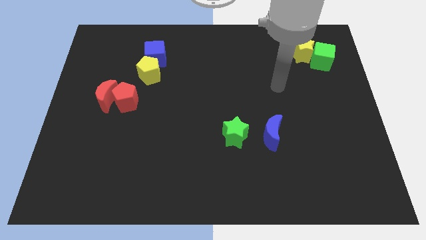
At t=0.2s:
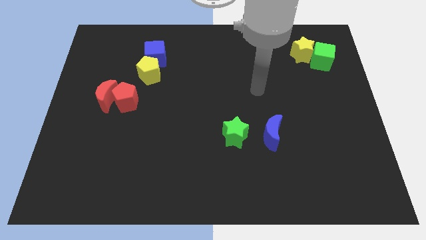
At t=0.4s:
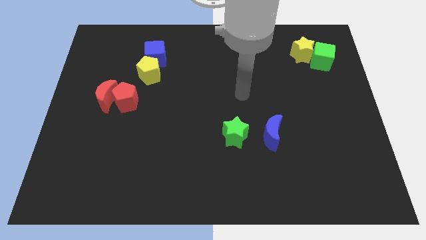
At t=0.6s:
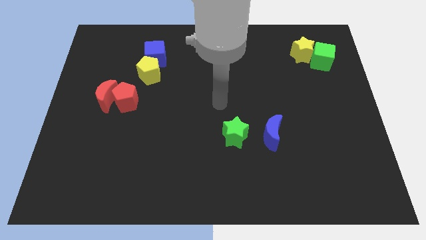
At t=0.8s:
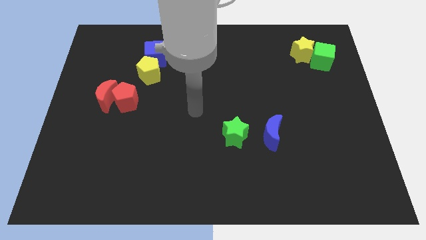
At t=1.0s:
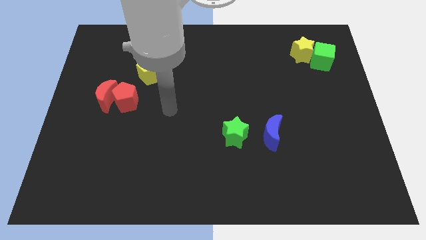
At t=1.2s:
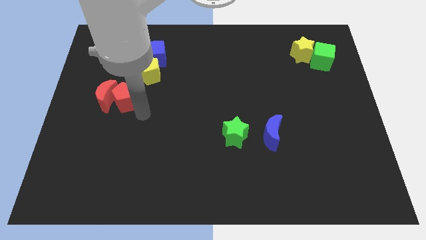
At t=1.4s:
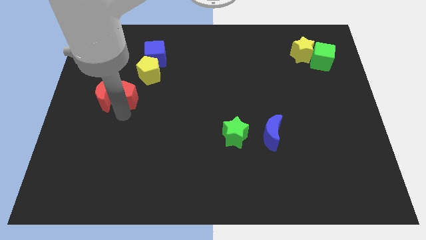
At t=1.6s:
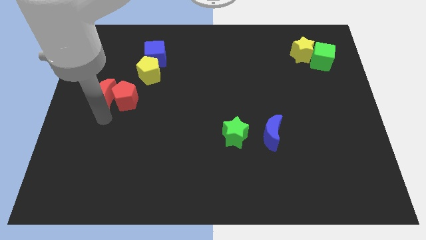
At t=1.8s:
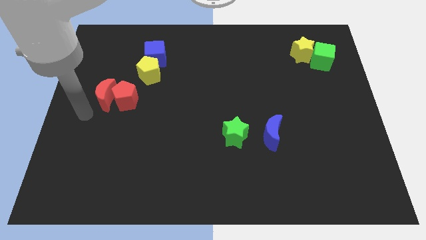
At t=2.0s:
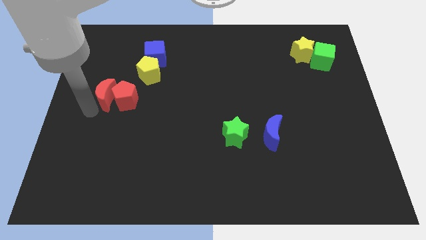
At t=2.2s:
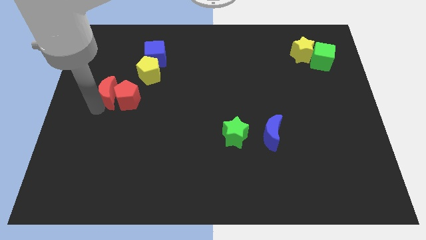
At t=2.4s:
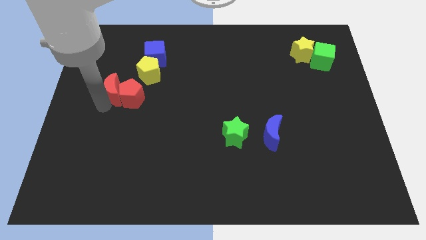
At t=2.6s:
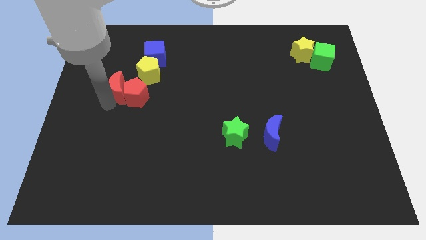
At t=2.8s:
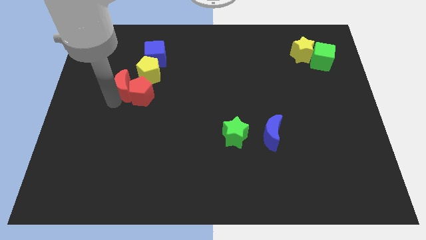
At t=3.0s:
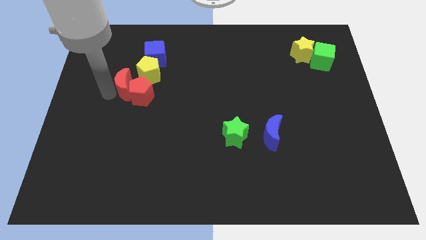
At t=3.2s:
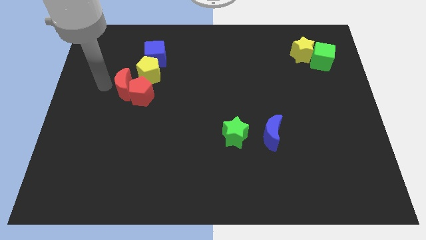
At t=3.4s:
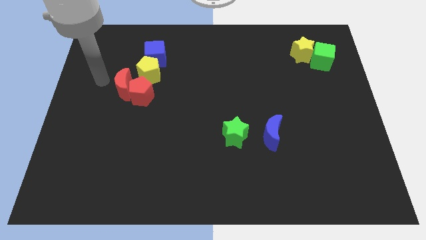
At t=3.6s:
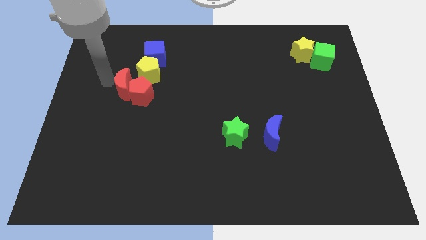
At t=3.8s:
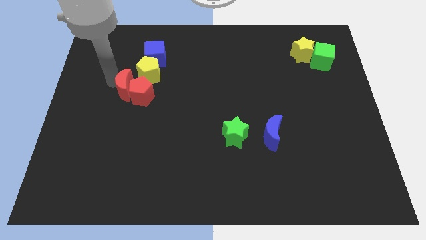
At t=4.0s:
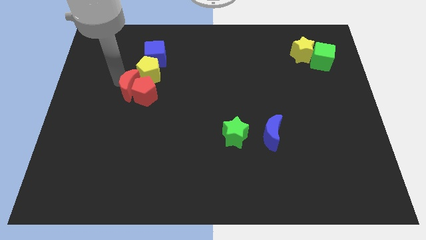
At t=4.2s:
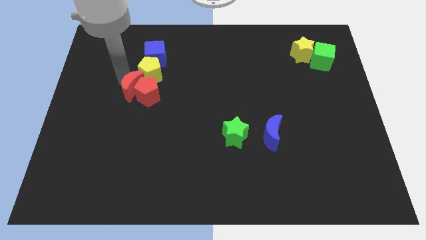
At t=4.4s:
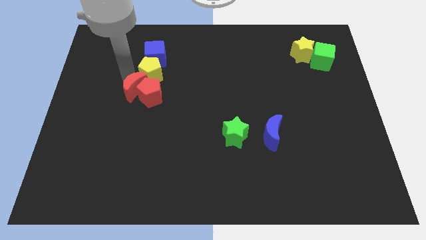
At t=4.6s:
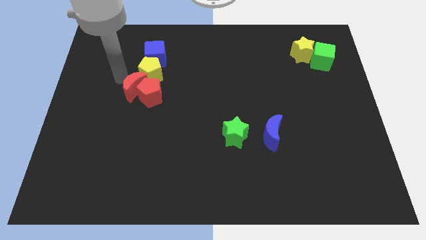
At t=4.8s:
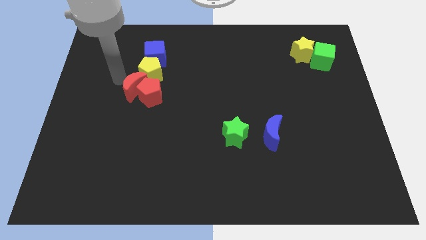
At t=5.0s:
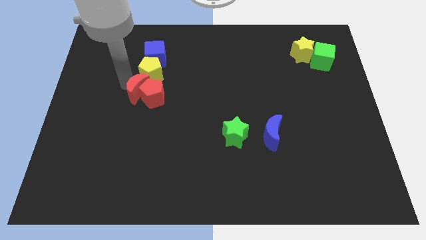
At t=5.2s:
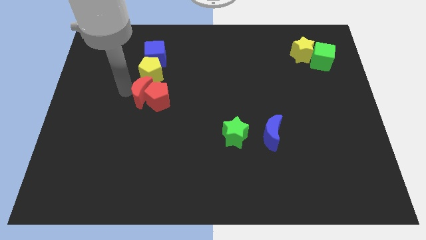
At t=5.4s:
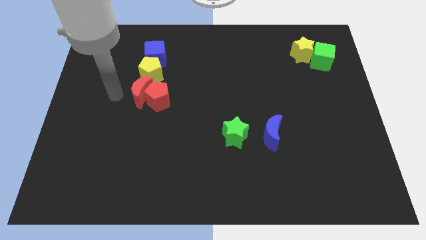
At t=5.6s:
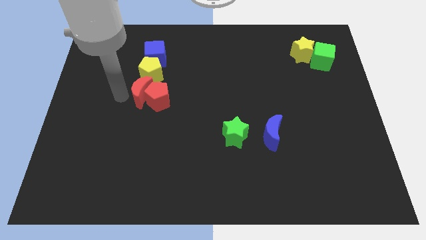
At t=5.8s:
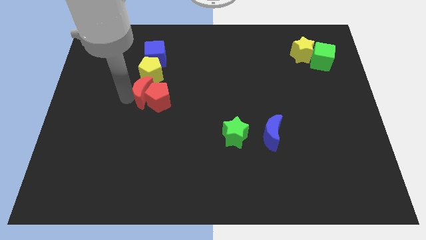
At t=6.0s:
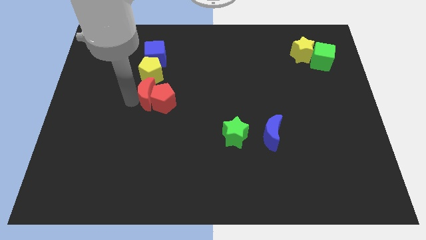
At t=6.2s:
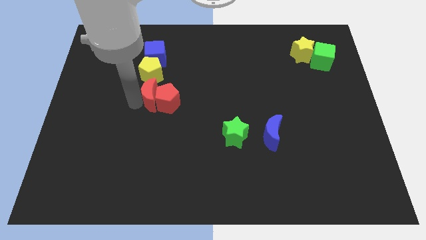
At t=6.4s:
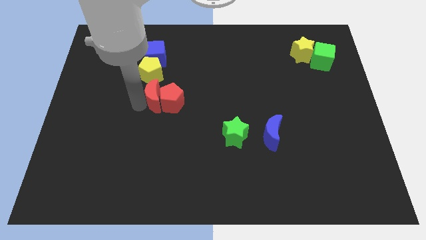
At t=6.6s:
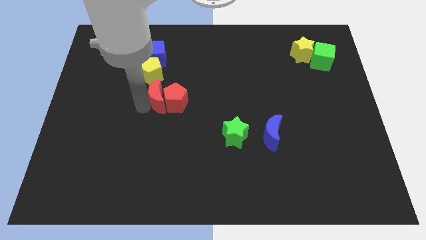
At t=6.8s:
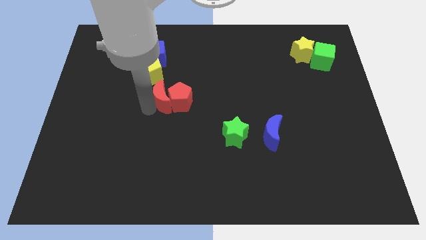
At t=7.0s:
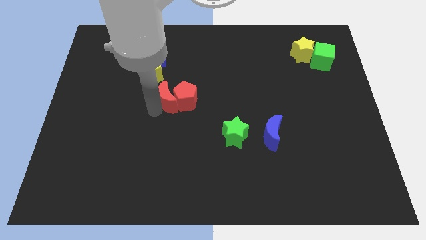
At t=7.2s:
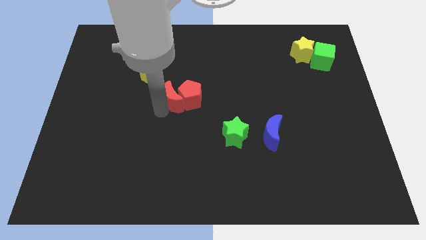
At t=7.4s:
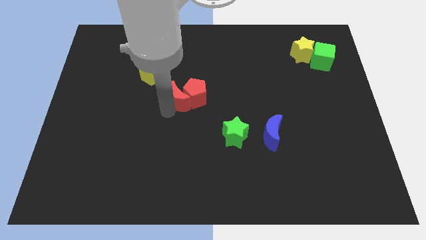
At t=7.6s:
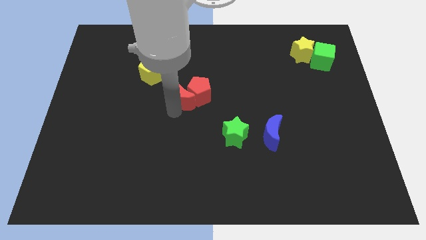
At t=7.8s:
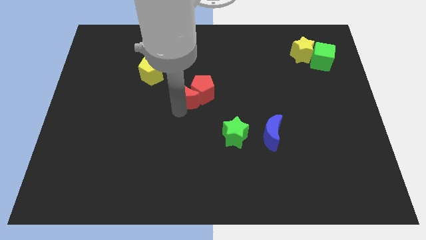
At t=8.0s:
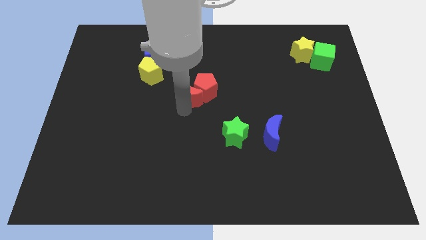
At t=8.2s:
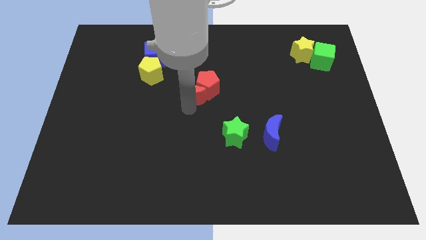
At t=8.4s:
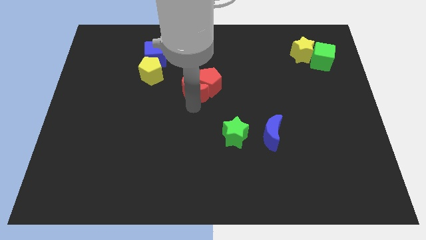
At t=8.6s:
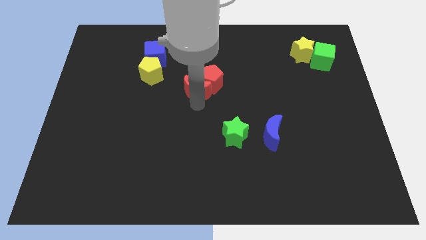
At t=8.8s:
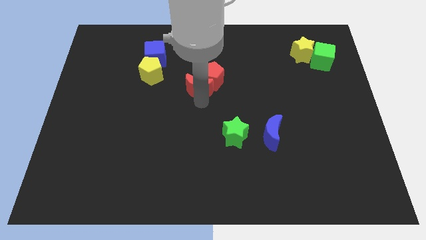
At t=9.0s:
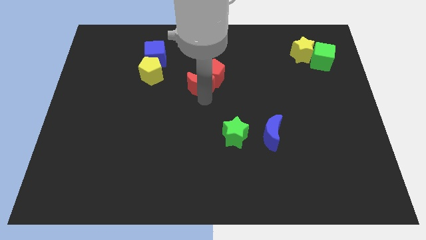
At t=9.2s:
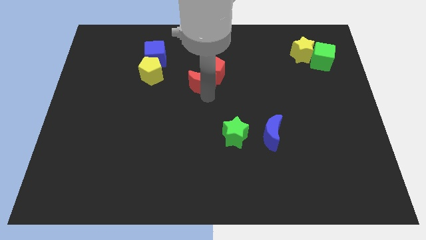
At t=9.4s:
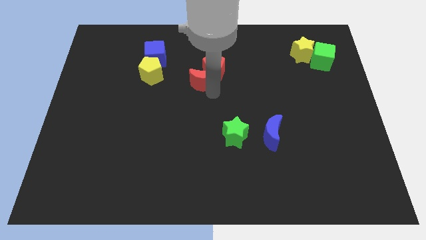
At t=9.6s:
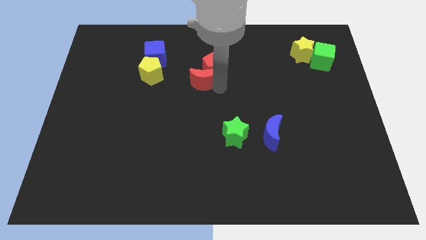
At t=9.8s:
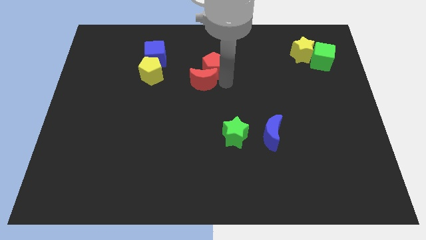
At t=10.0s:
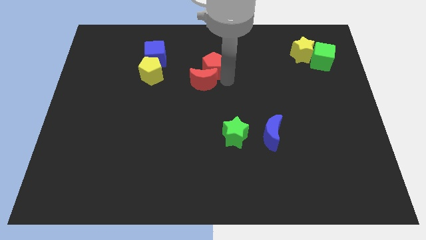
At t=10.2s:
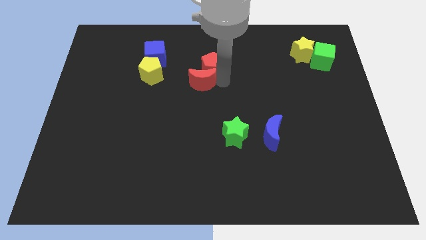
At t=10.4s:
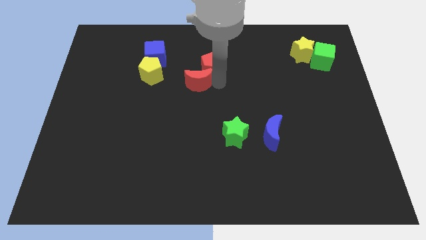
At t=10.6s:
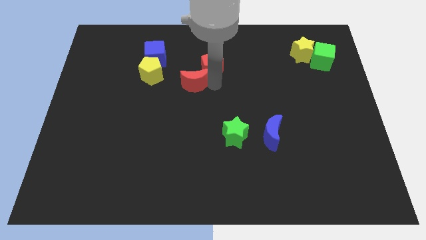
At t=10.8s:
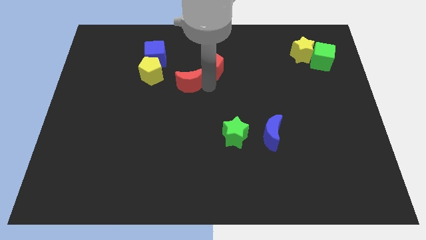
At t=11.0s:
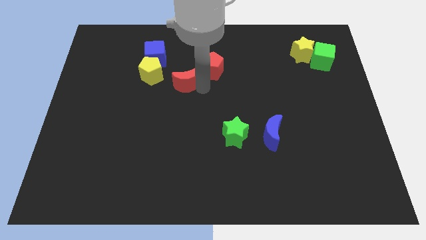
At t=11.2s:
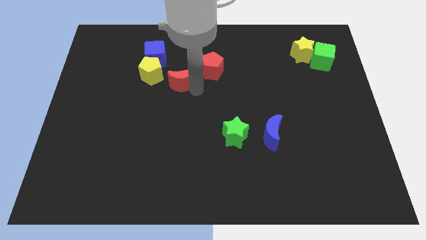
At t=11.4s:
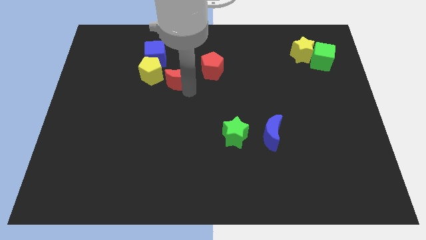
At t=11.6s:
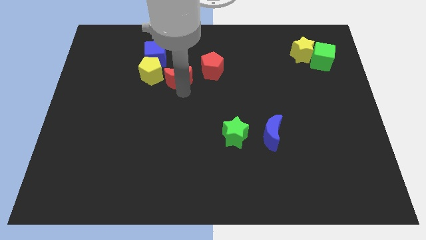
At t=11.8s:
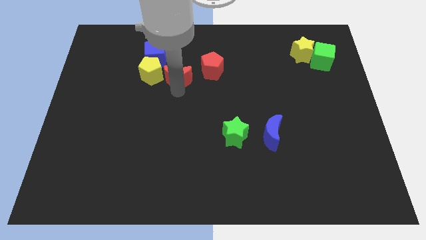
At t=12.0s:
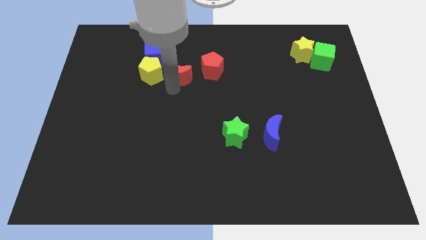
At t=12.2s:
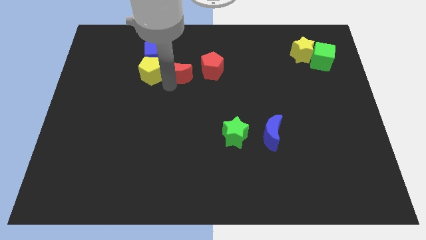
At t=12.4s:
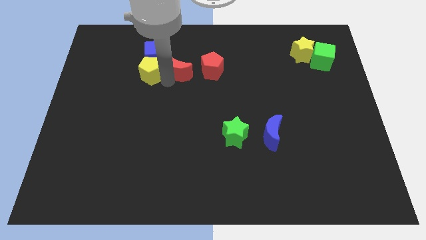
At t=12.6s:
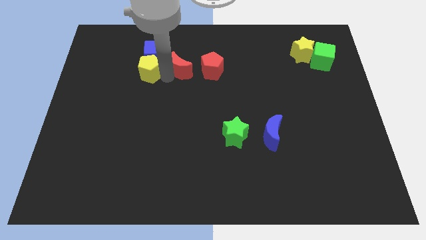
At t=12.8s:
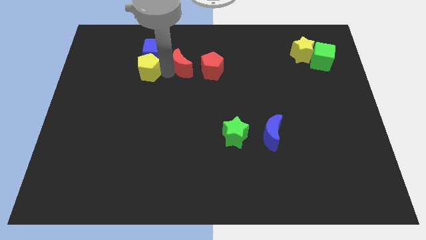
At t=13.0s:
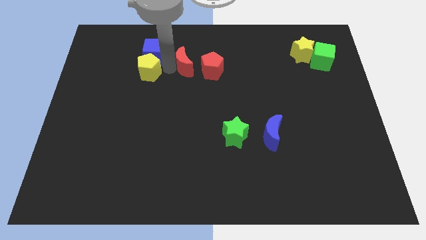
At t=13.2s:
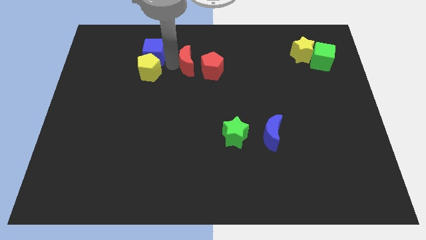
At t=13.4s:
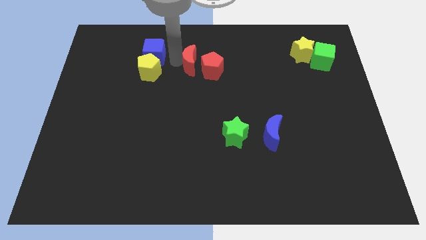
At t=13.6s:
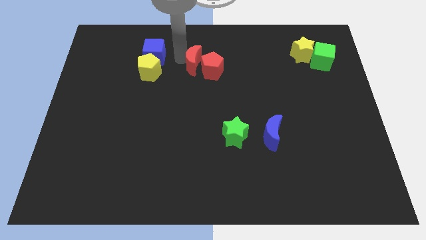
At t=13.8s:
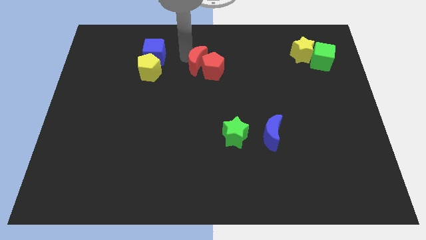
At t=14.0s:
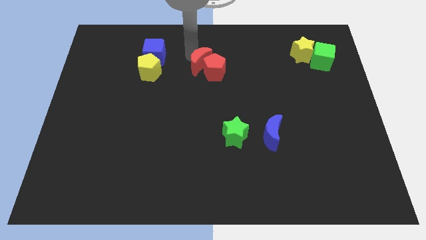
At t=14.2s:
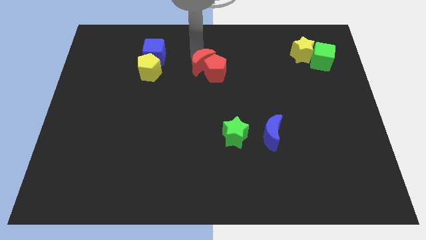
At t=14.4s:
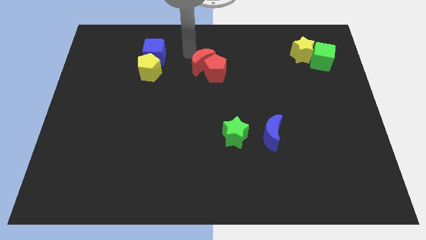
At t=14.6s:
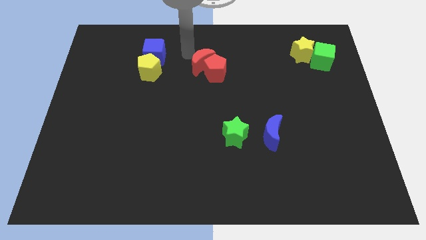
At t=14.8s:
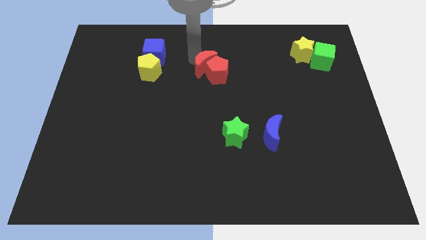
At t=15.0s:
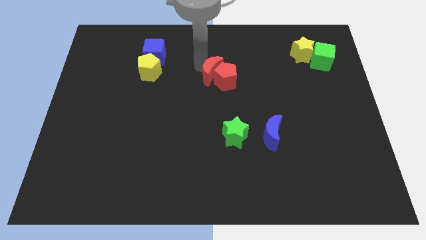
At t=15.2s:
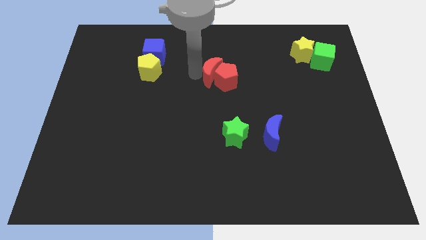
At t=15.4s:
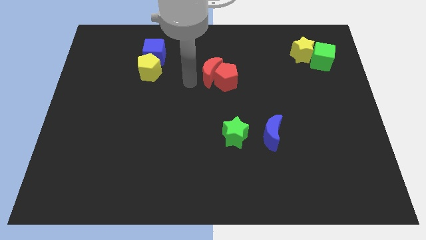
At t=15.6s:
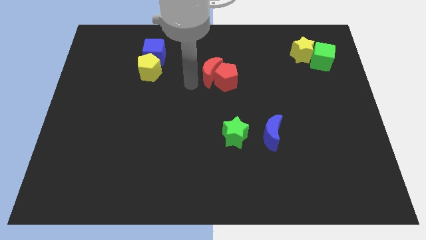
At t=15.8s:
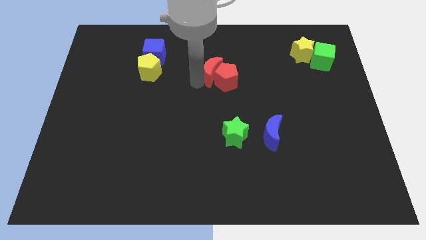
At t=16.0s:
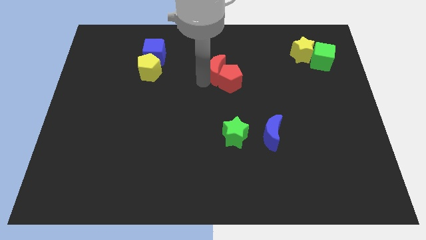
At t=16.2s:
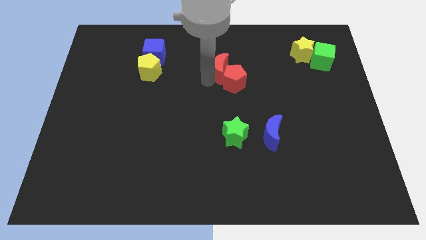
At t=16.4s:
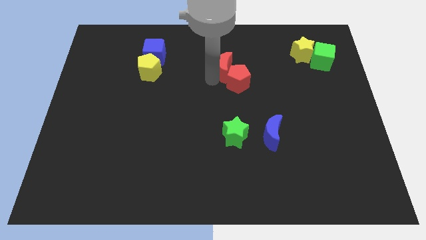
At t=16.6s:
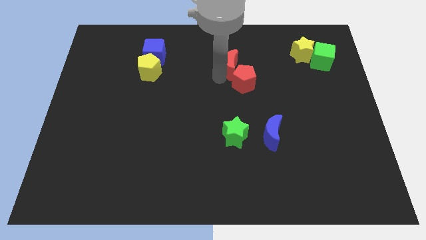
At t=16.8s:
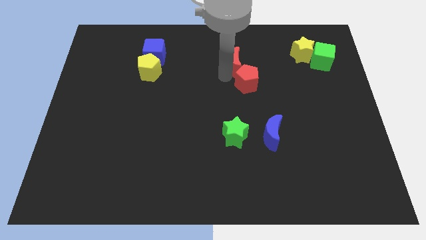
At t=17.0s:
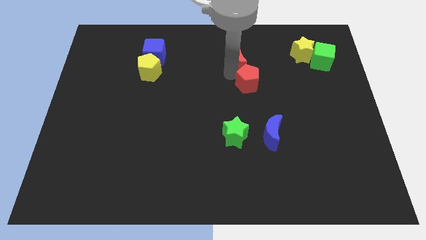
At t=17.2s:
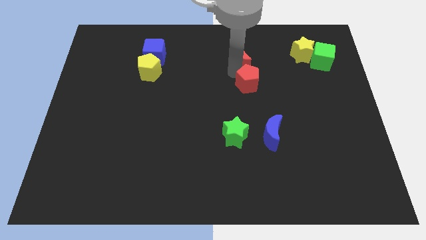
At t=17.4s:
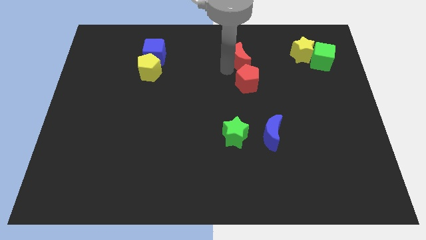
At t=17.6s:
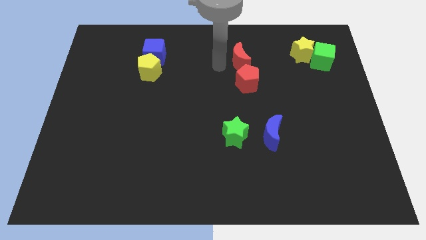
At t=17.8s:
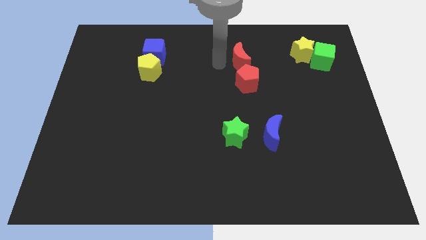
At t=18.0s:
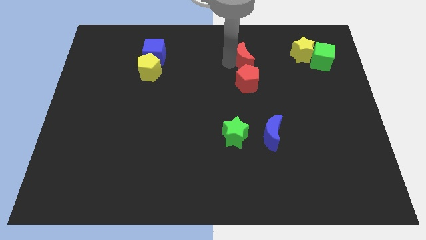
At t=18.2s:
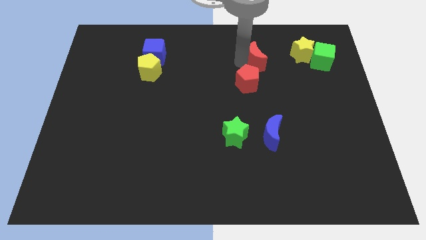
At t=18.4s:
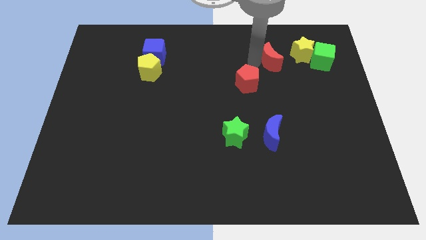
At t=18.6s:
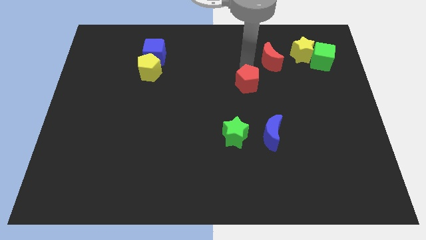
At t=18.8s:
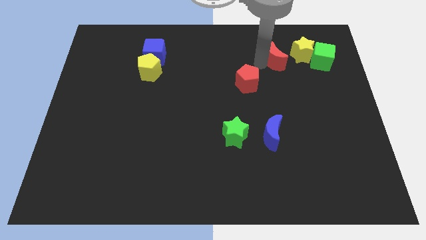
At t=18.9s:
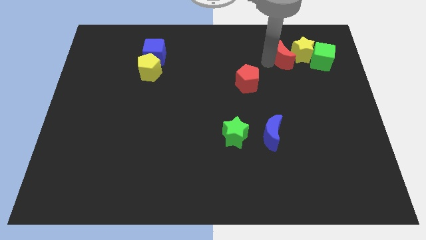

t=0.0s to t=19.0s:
put the red moon close to the yellow star
